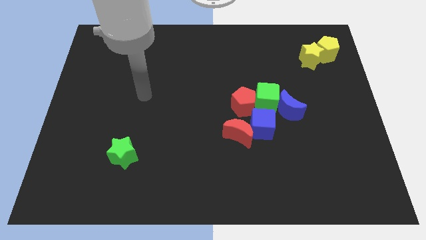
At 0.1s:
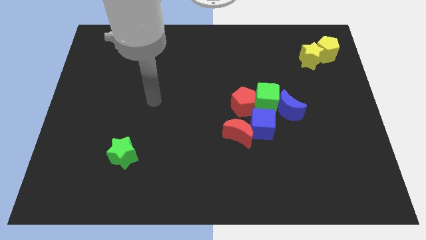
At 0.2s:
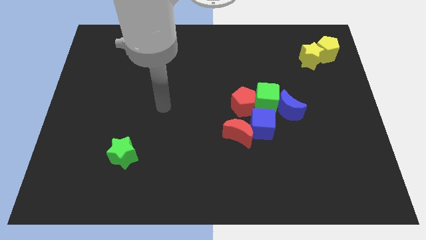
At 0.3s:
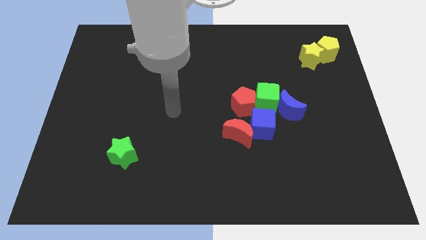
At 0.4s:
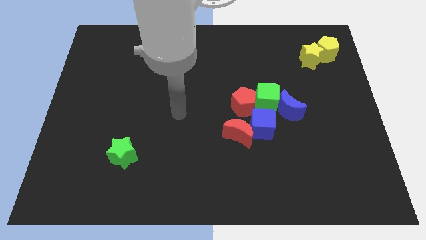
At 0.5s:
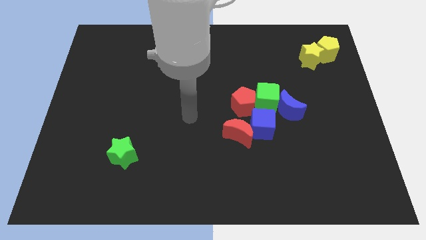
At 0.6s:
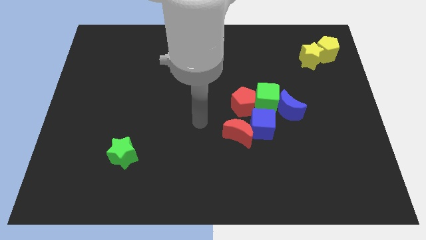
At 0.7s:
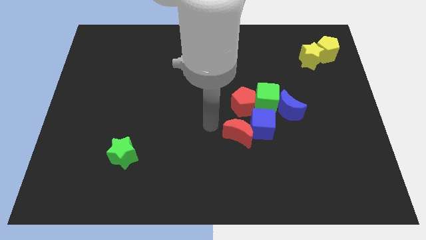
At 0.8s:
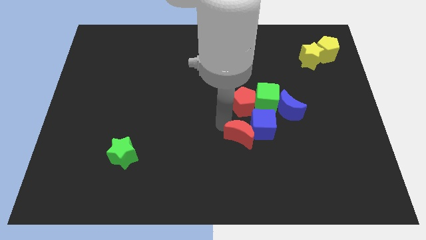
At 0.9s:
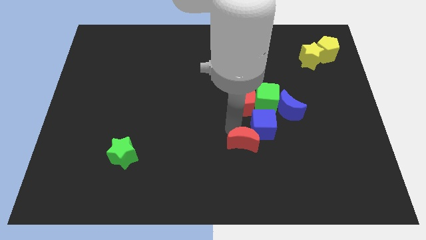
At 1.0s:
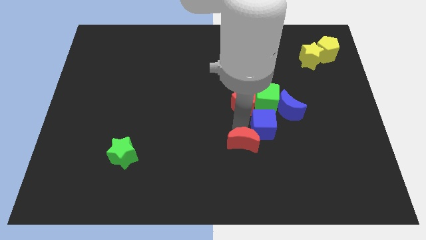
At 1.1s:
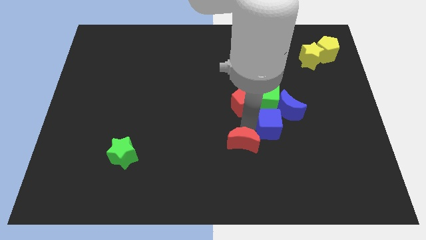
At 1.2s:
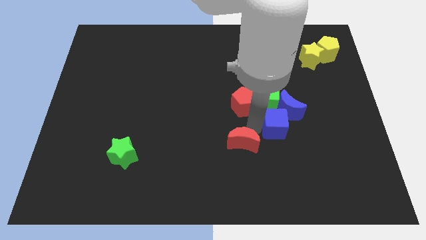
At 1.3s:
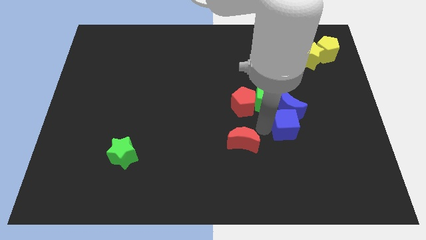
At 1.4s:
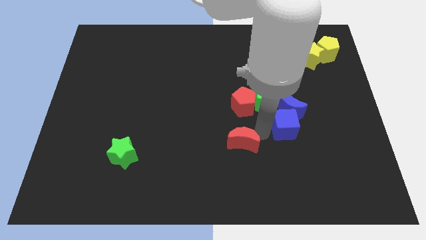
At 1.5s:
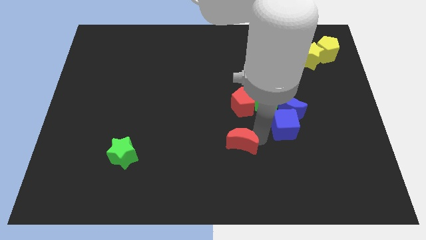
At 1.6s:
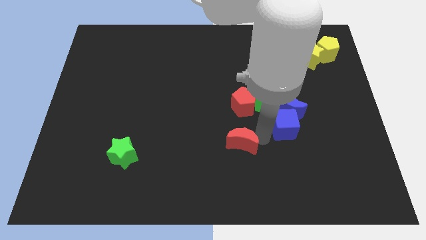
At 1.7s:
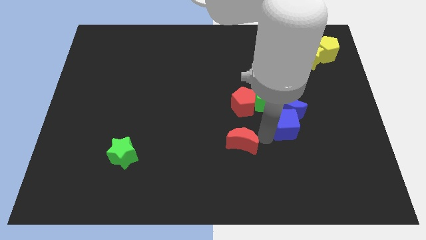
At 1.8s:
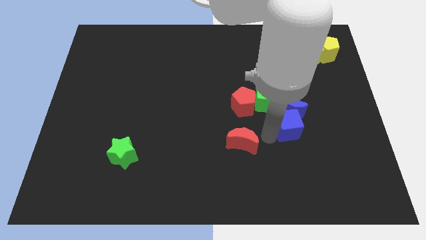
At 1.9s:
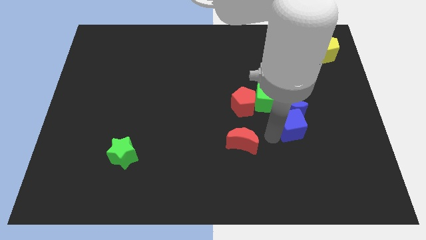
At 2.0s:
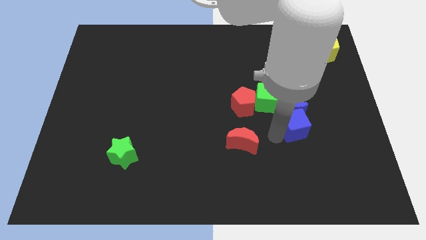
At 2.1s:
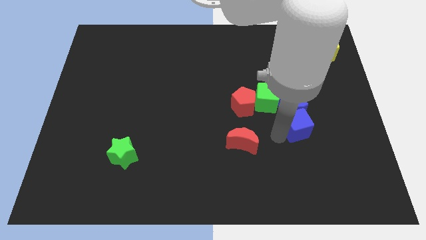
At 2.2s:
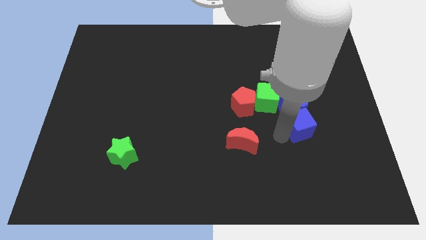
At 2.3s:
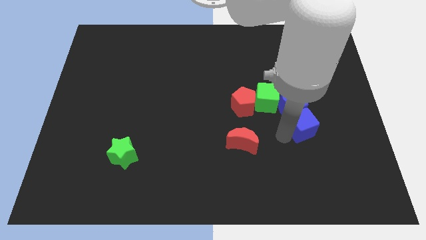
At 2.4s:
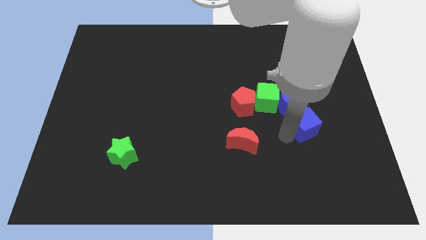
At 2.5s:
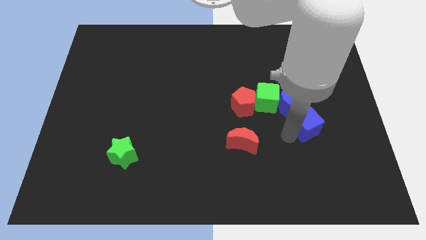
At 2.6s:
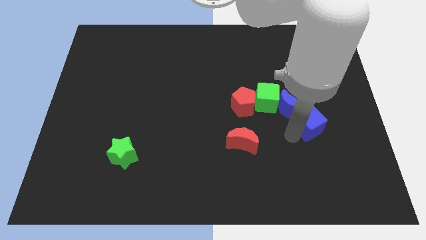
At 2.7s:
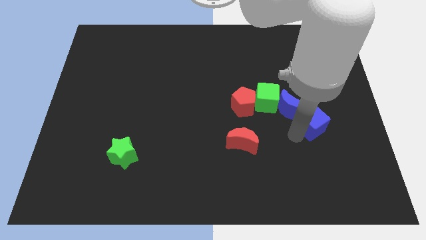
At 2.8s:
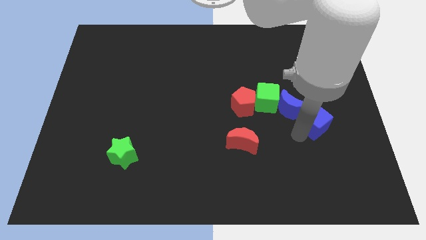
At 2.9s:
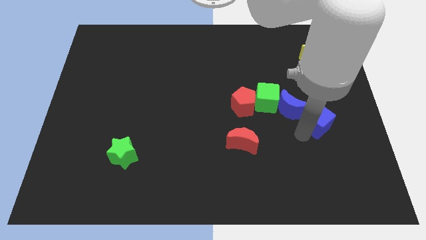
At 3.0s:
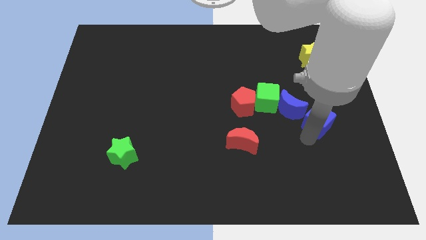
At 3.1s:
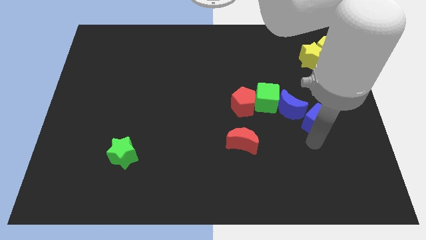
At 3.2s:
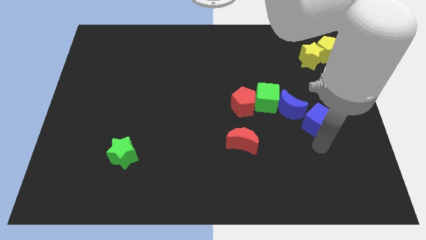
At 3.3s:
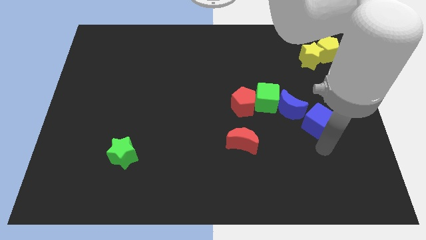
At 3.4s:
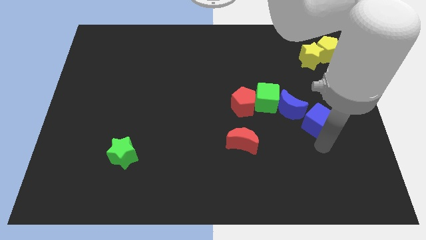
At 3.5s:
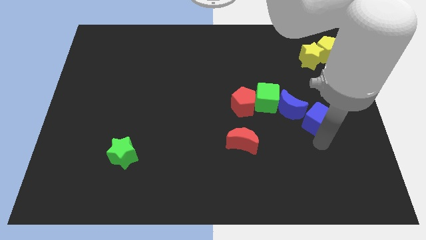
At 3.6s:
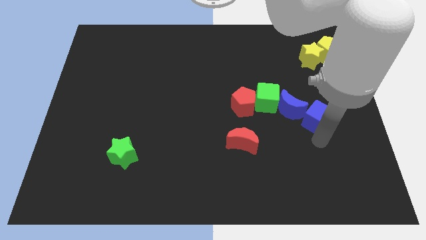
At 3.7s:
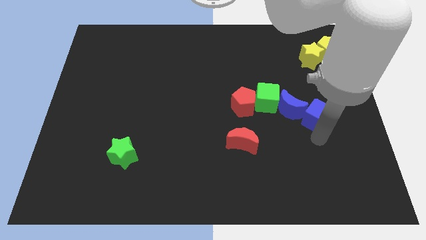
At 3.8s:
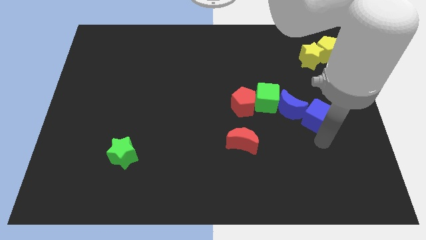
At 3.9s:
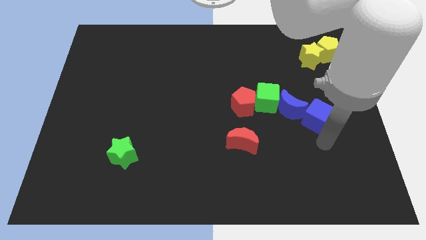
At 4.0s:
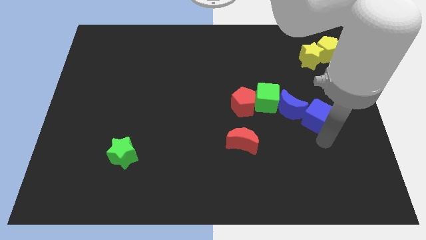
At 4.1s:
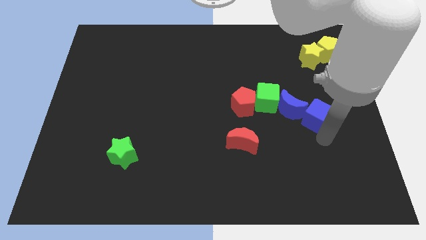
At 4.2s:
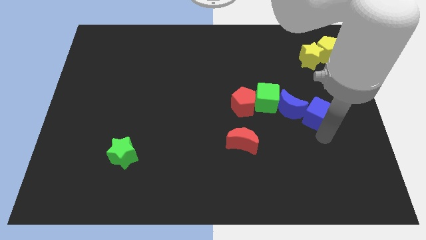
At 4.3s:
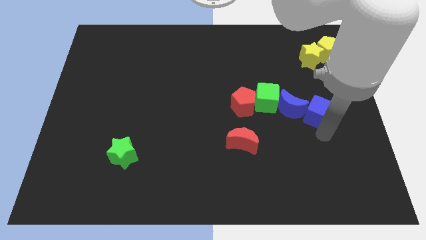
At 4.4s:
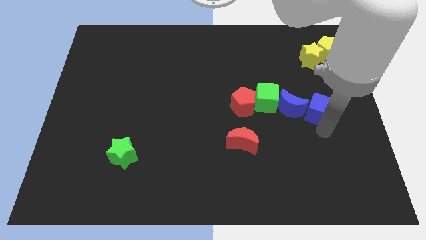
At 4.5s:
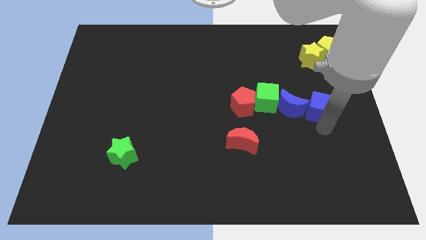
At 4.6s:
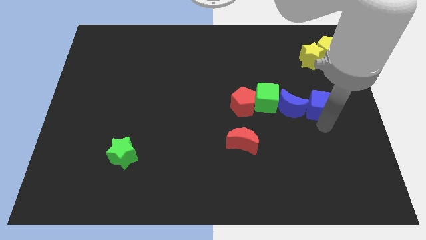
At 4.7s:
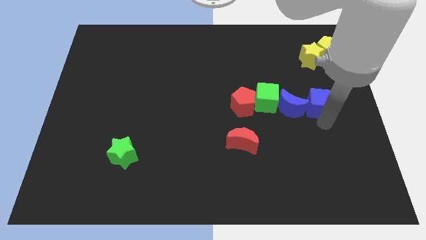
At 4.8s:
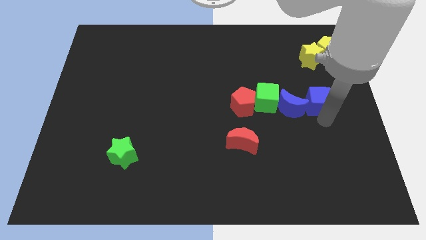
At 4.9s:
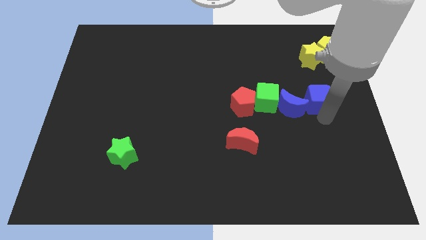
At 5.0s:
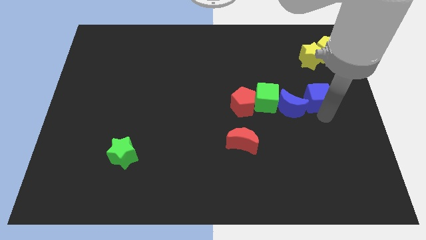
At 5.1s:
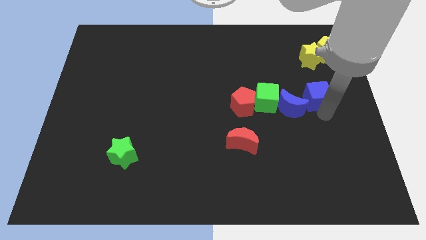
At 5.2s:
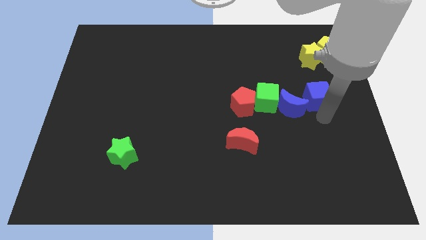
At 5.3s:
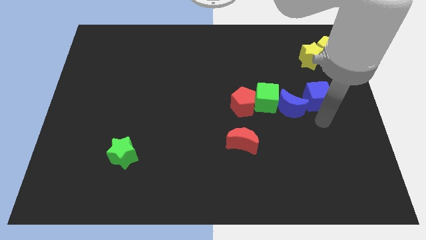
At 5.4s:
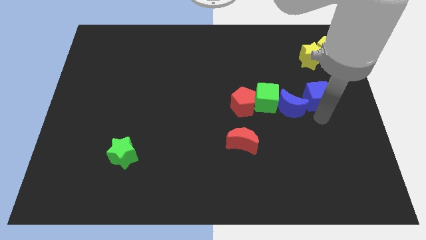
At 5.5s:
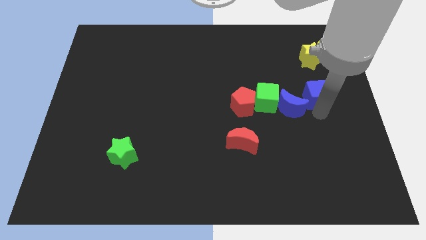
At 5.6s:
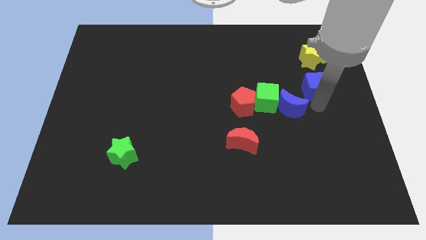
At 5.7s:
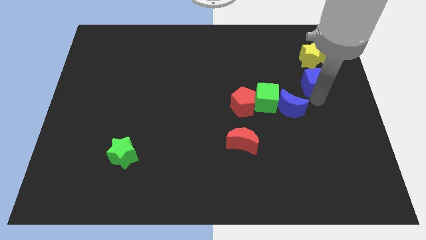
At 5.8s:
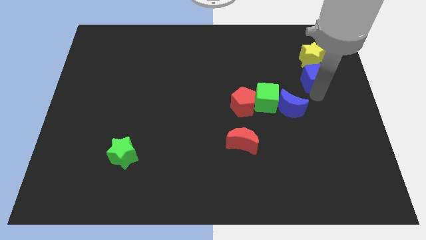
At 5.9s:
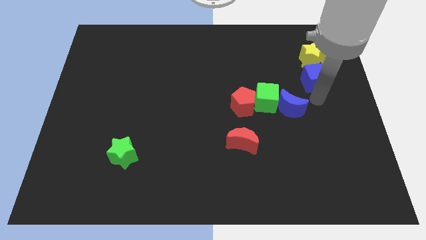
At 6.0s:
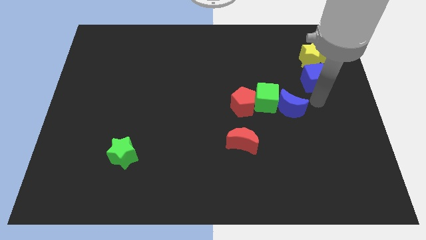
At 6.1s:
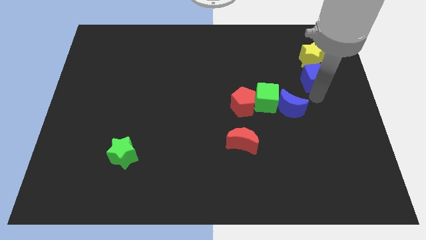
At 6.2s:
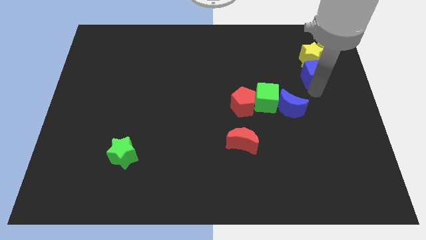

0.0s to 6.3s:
push the blue cube to the yellow star

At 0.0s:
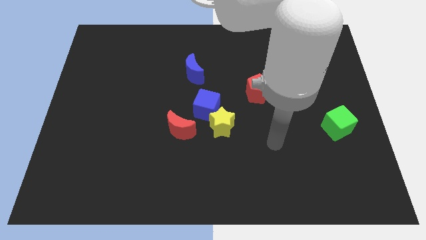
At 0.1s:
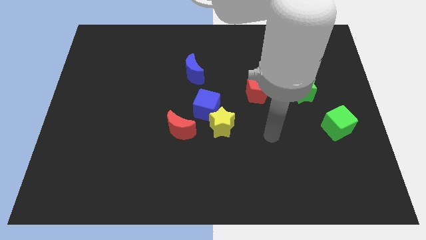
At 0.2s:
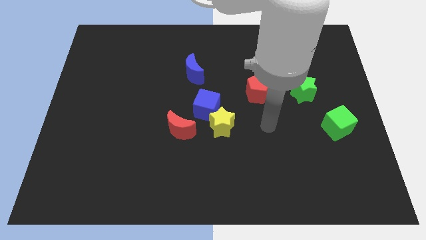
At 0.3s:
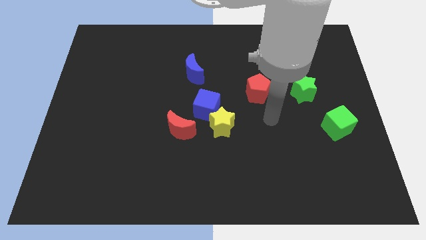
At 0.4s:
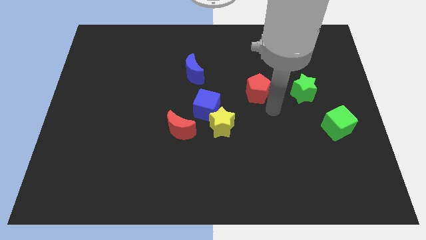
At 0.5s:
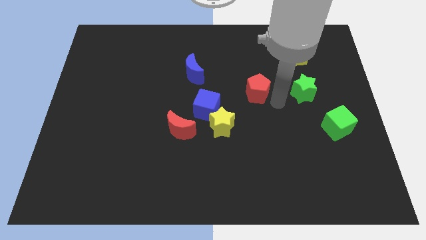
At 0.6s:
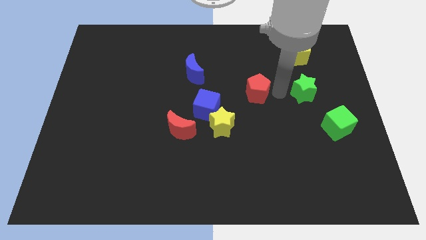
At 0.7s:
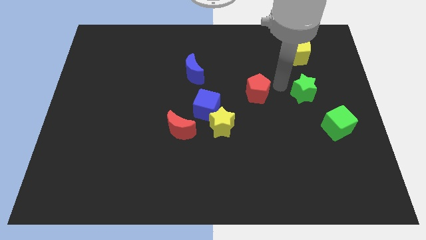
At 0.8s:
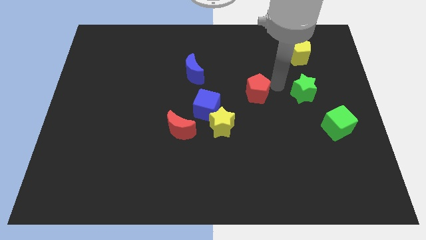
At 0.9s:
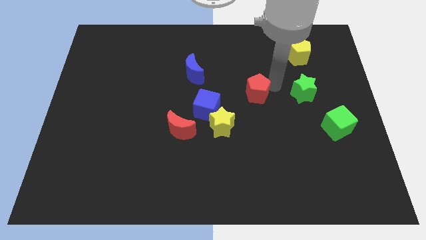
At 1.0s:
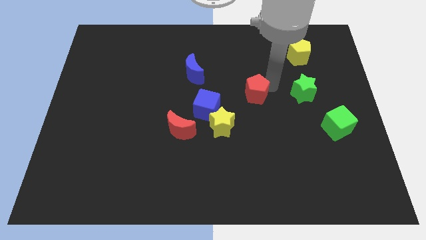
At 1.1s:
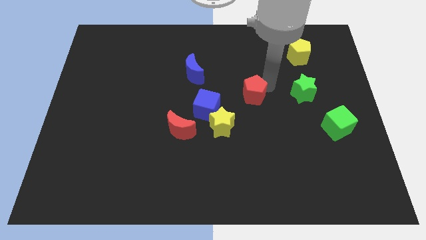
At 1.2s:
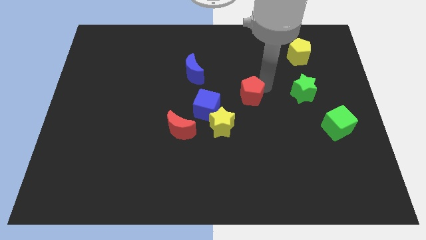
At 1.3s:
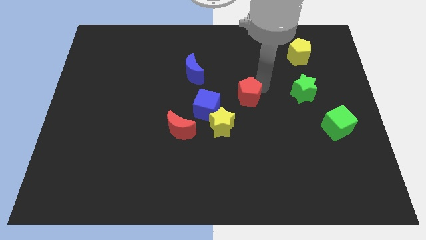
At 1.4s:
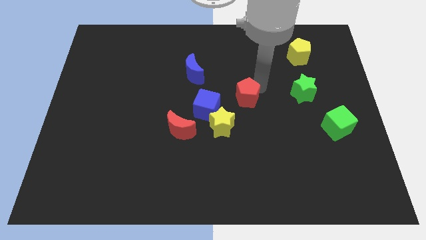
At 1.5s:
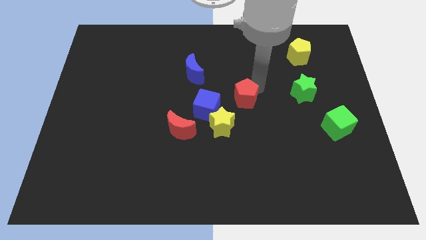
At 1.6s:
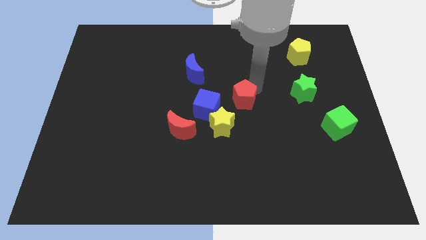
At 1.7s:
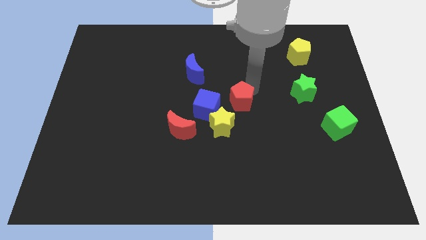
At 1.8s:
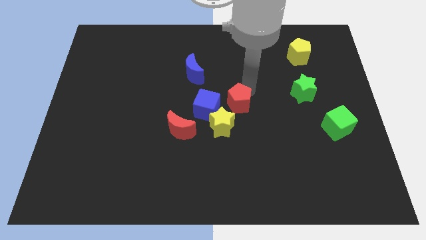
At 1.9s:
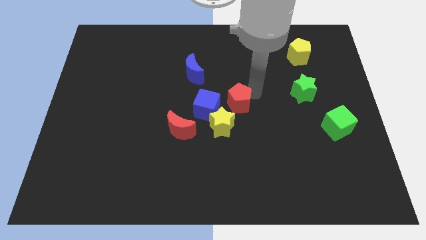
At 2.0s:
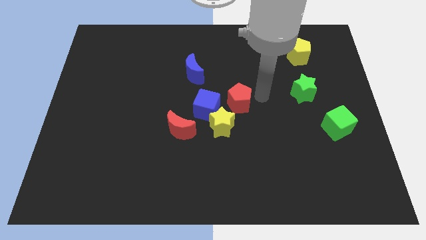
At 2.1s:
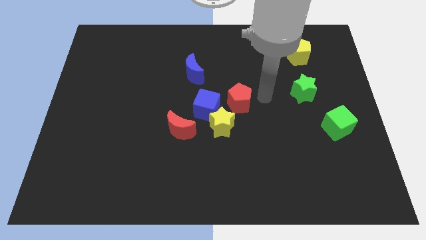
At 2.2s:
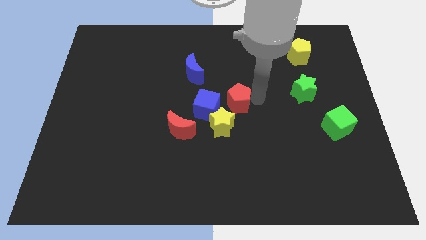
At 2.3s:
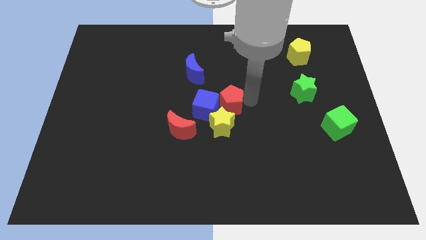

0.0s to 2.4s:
push the red pentagon next to the blue cube
